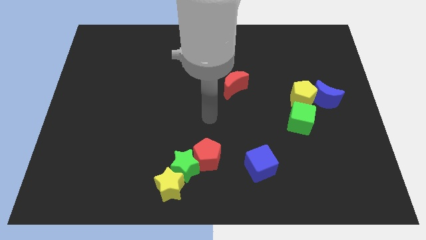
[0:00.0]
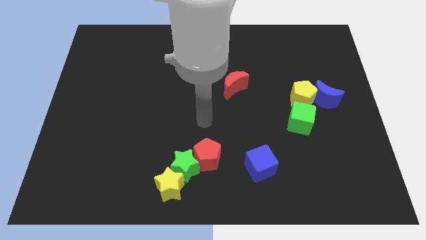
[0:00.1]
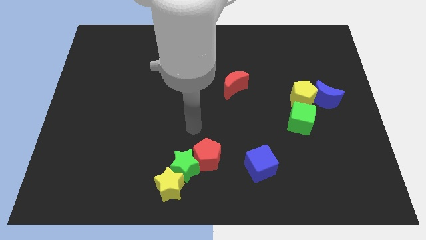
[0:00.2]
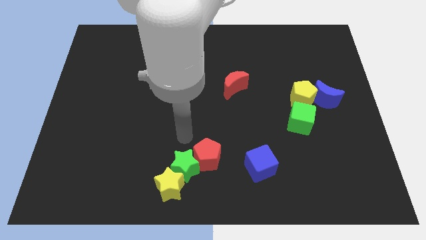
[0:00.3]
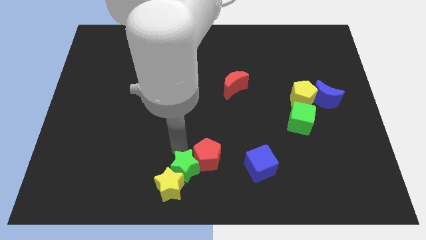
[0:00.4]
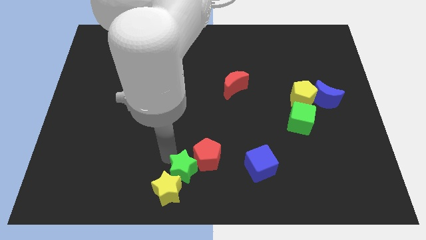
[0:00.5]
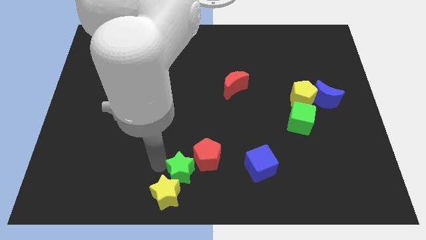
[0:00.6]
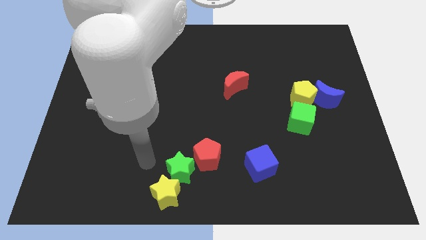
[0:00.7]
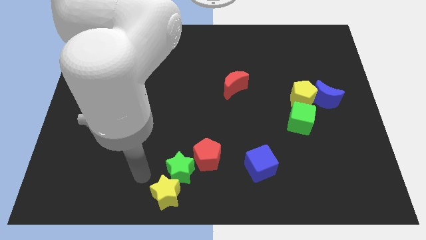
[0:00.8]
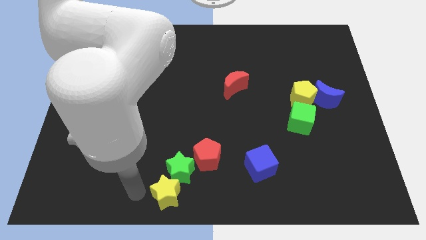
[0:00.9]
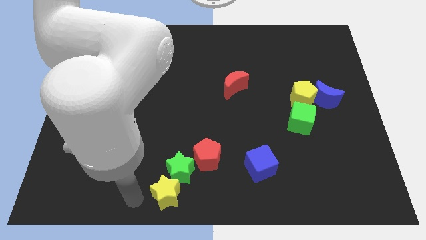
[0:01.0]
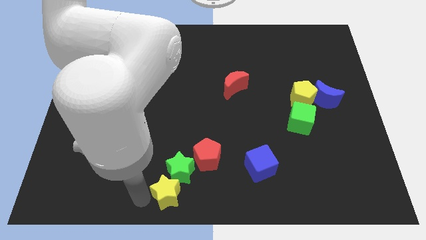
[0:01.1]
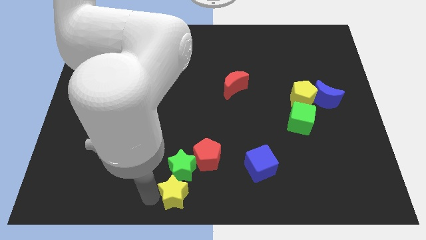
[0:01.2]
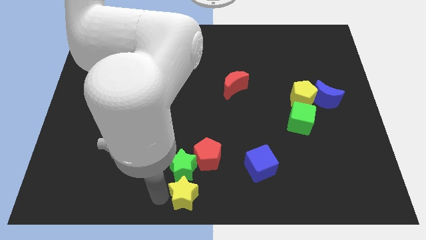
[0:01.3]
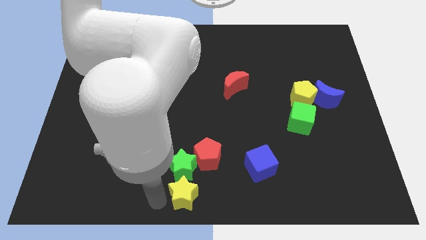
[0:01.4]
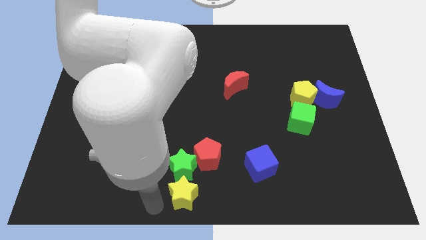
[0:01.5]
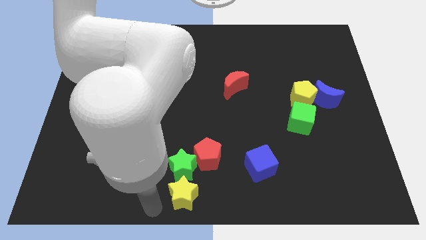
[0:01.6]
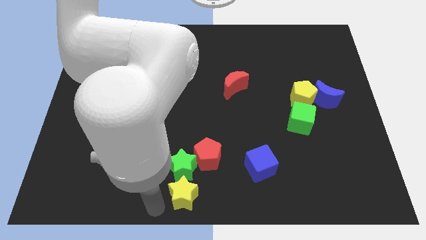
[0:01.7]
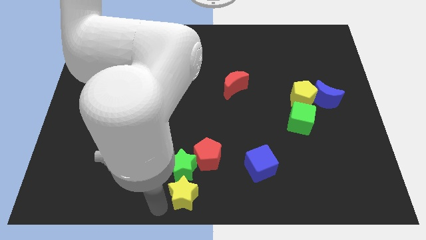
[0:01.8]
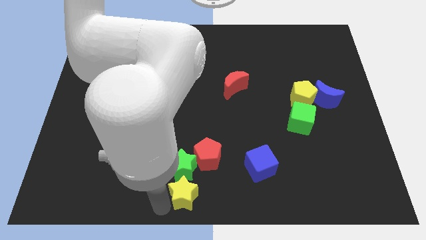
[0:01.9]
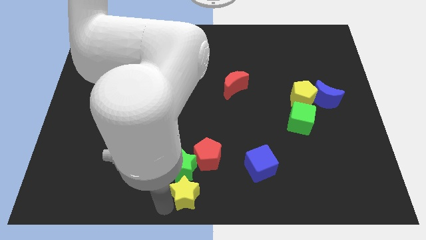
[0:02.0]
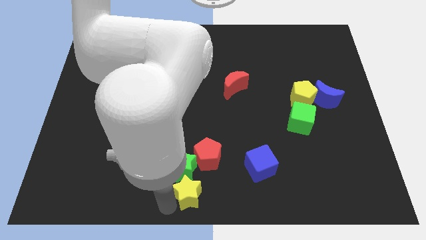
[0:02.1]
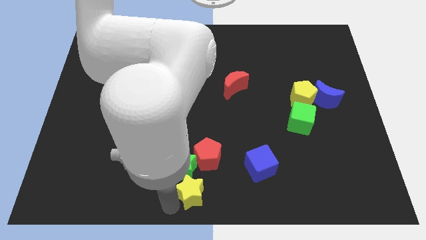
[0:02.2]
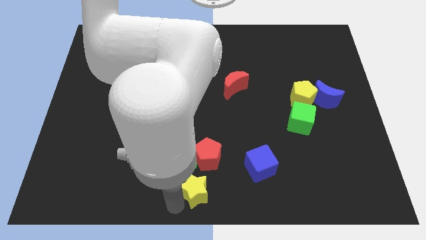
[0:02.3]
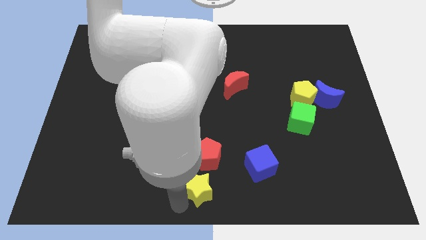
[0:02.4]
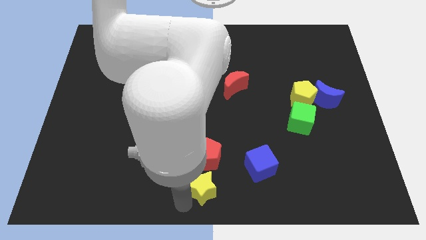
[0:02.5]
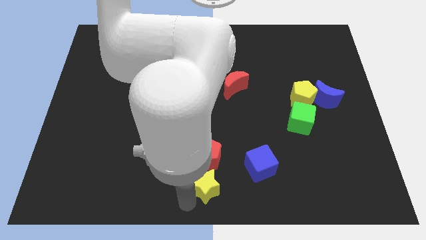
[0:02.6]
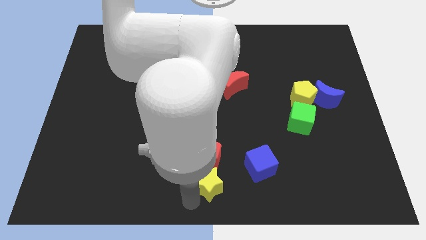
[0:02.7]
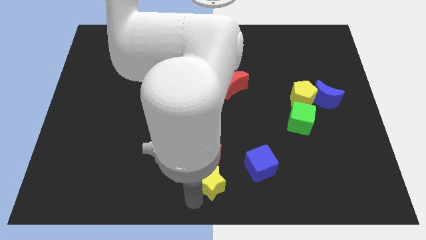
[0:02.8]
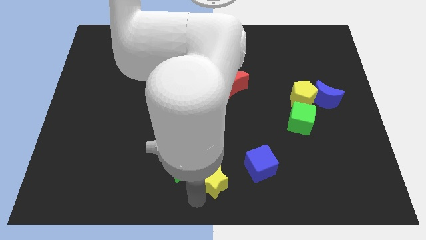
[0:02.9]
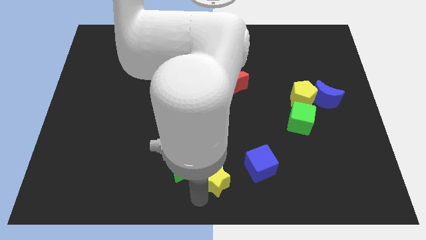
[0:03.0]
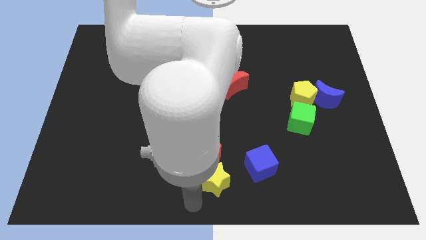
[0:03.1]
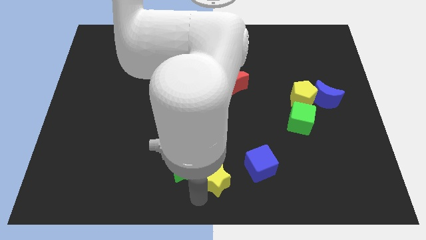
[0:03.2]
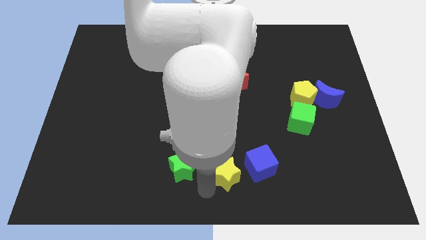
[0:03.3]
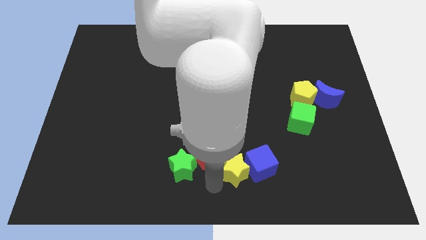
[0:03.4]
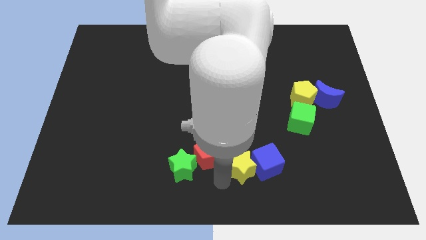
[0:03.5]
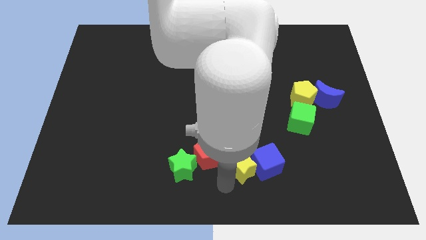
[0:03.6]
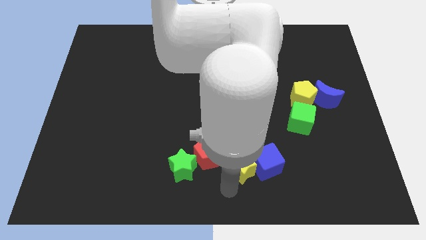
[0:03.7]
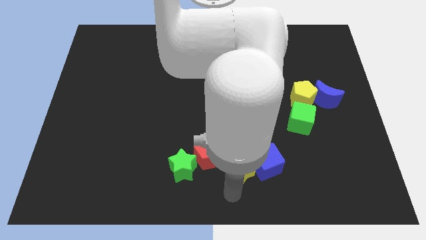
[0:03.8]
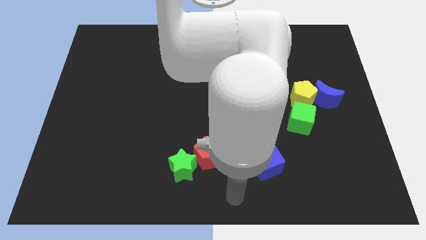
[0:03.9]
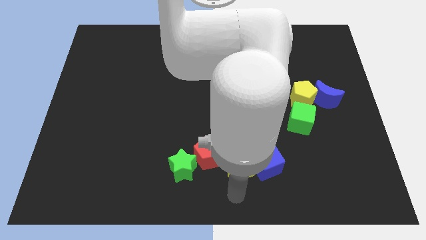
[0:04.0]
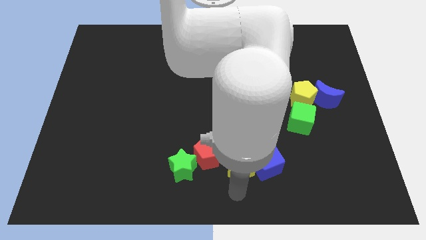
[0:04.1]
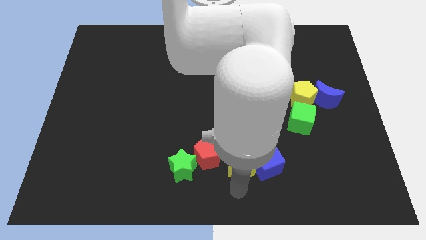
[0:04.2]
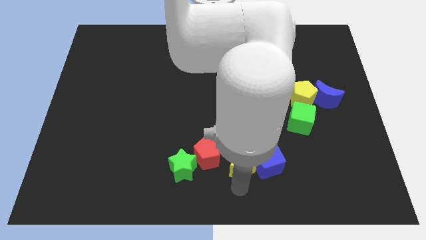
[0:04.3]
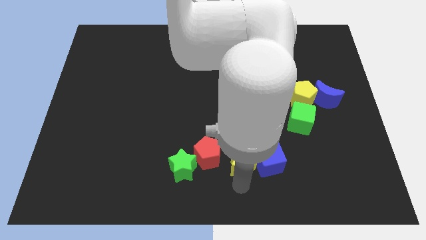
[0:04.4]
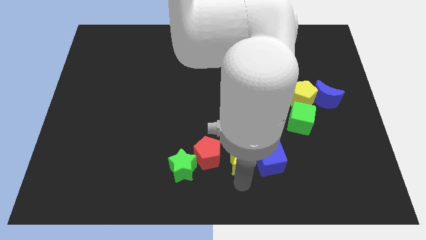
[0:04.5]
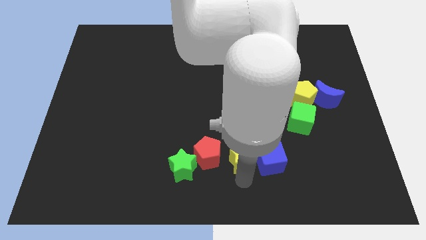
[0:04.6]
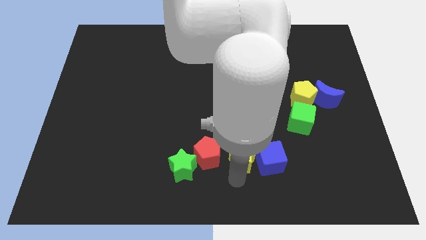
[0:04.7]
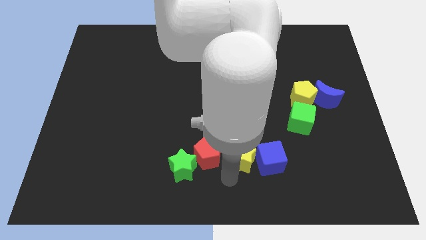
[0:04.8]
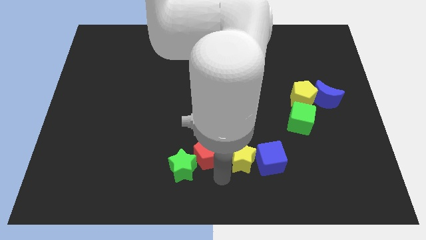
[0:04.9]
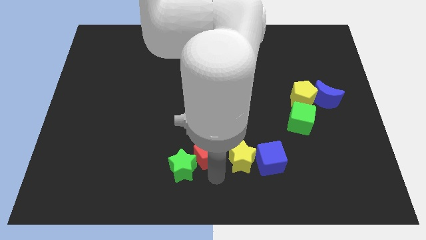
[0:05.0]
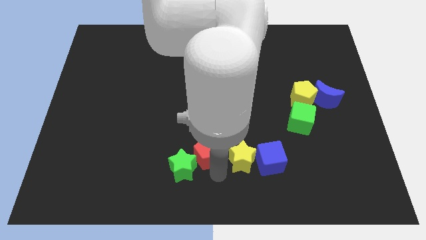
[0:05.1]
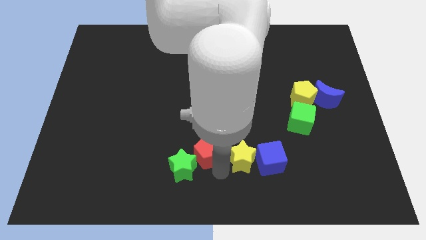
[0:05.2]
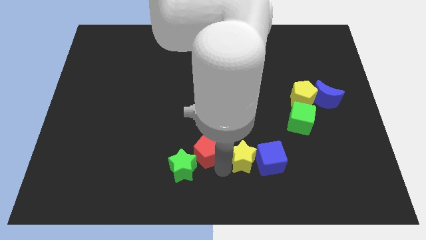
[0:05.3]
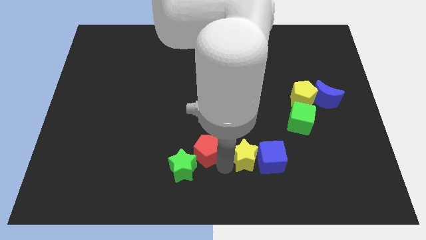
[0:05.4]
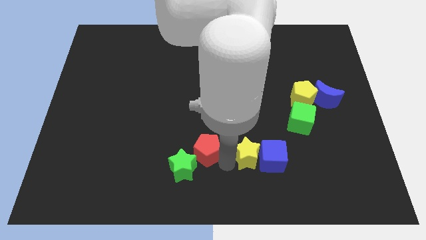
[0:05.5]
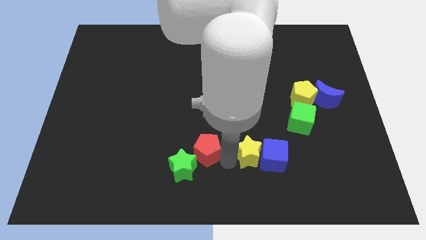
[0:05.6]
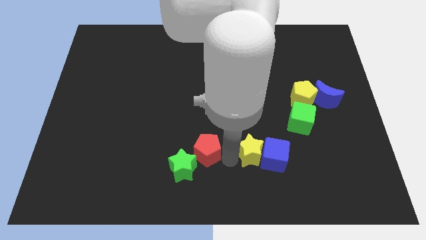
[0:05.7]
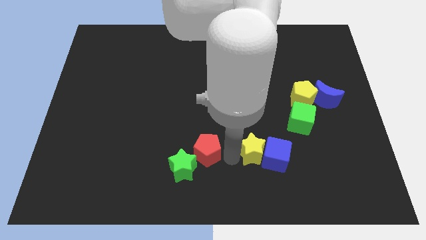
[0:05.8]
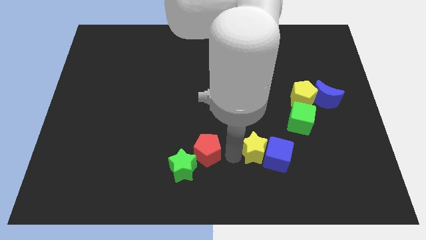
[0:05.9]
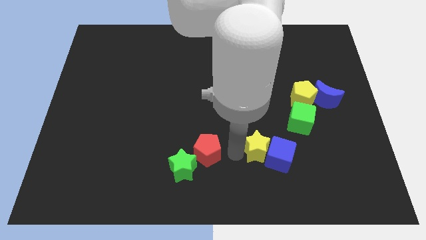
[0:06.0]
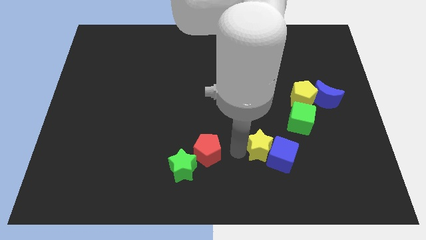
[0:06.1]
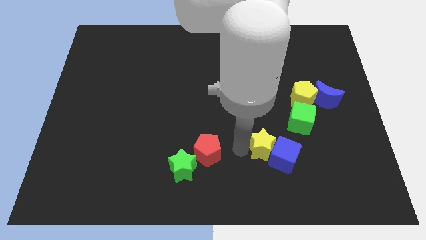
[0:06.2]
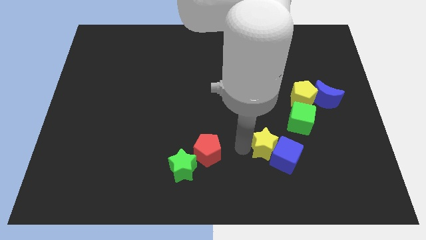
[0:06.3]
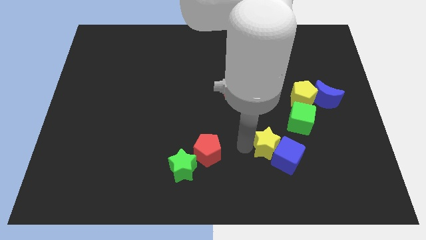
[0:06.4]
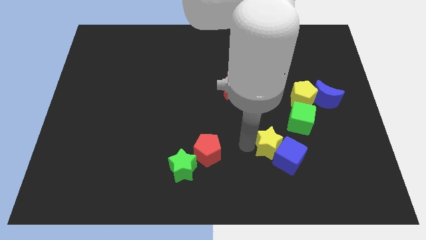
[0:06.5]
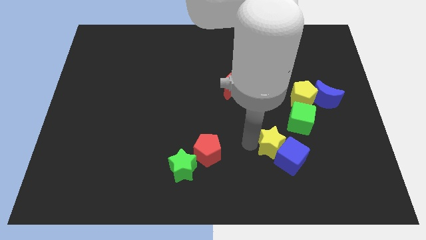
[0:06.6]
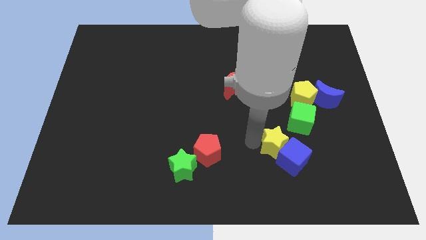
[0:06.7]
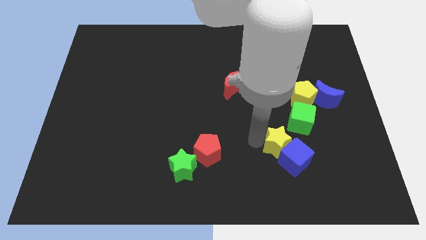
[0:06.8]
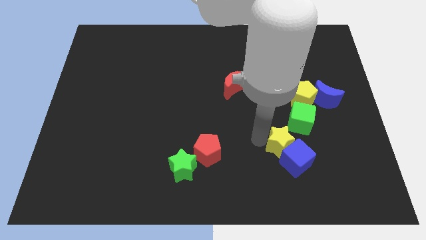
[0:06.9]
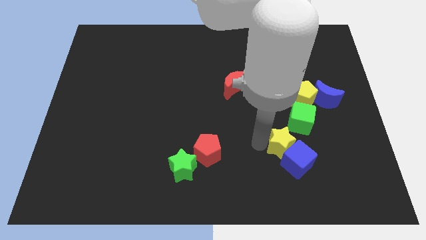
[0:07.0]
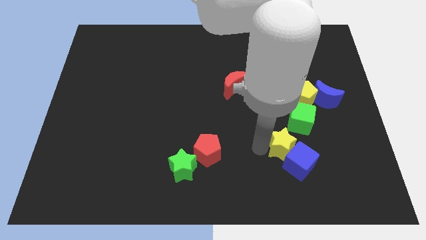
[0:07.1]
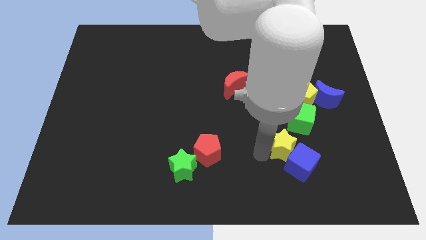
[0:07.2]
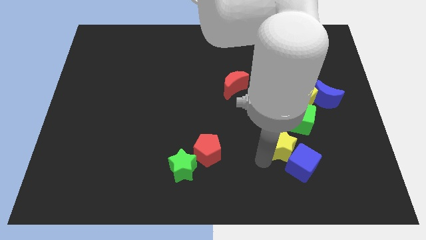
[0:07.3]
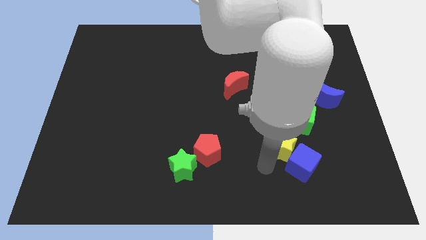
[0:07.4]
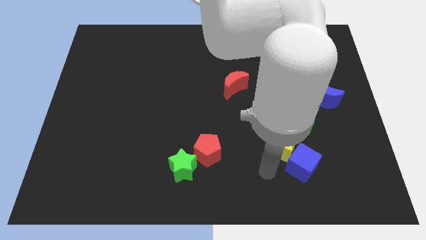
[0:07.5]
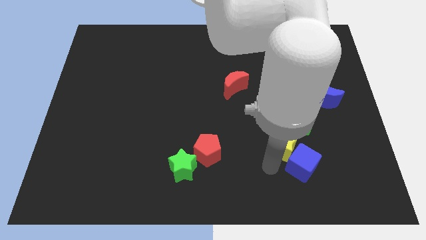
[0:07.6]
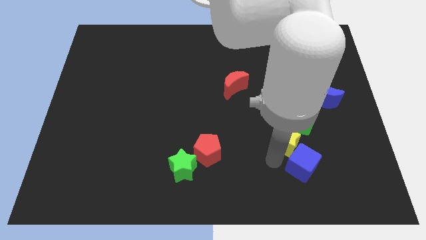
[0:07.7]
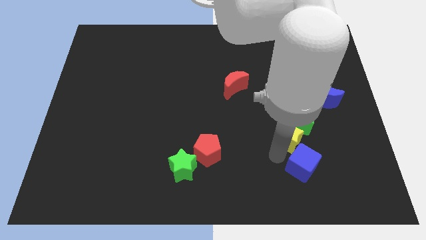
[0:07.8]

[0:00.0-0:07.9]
push the yellow star to the green cube
